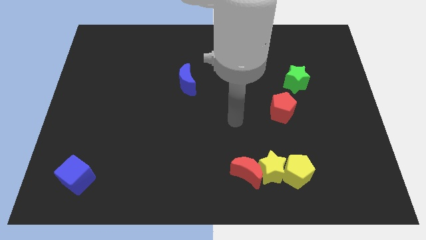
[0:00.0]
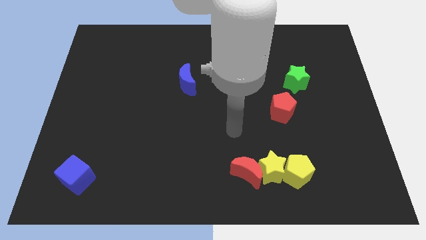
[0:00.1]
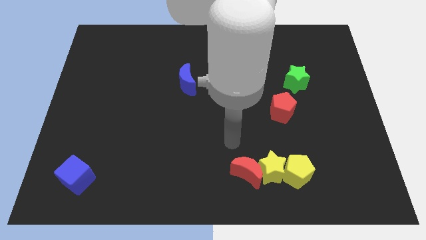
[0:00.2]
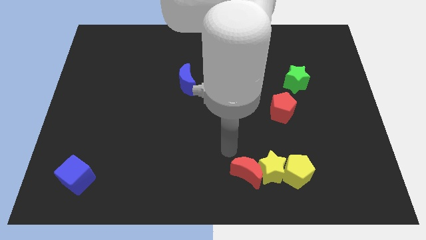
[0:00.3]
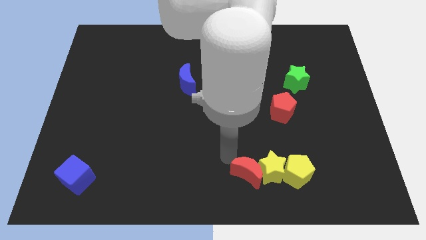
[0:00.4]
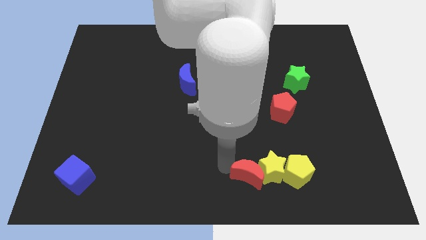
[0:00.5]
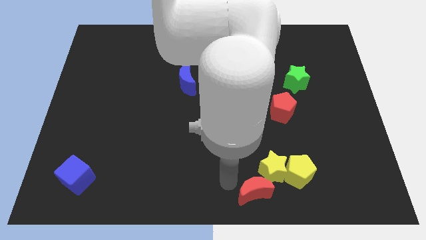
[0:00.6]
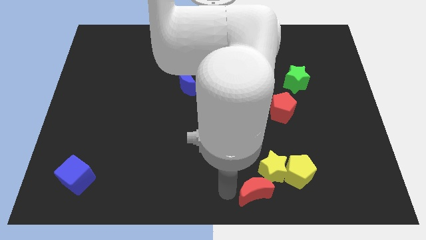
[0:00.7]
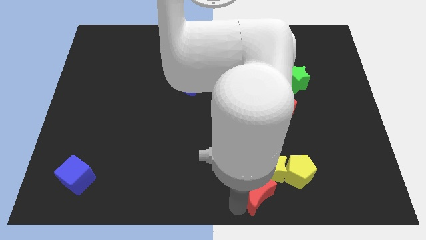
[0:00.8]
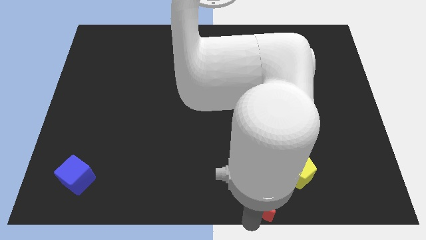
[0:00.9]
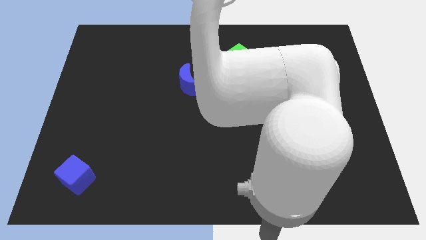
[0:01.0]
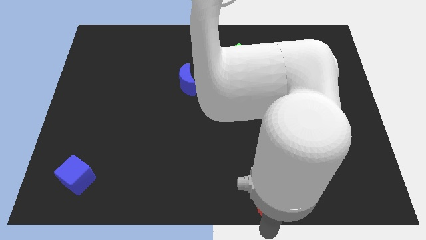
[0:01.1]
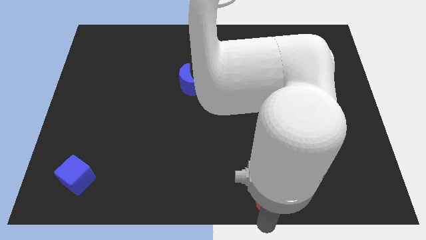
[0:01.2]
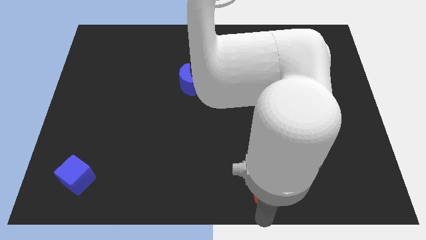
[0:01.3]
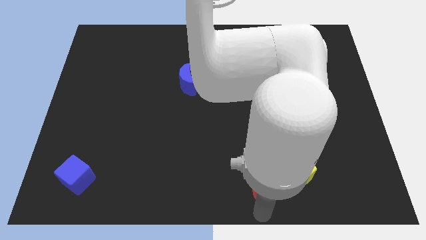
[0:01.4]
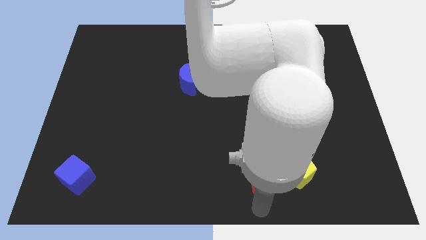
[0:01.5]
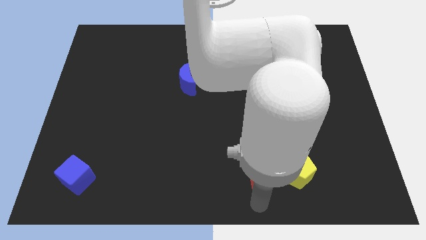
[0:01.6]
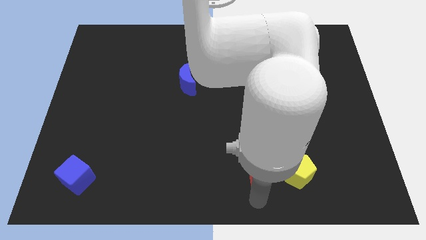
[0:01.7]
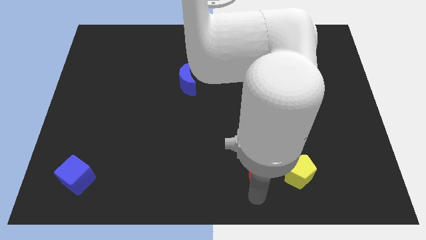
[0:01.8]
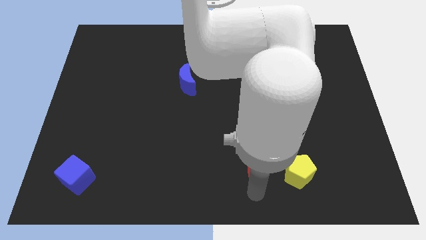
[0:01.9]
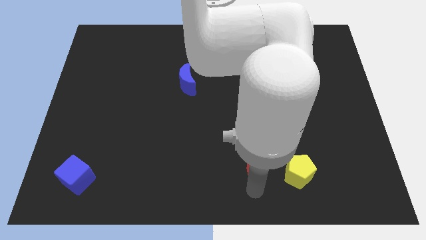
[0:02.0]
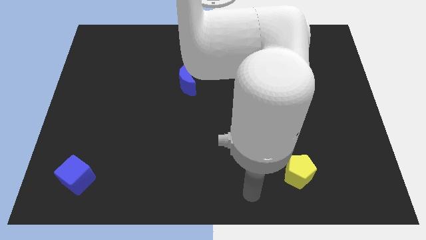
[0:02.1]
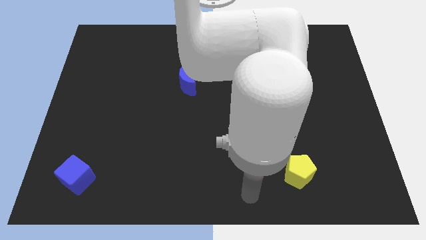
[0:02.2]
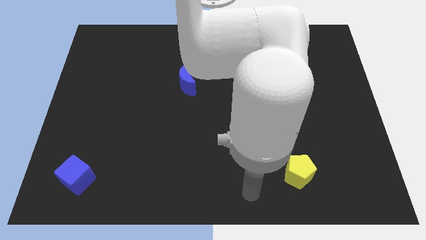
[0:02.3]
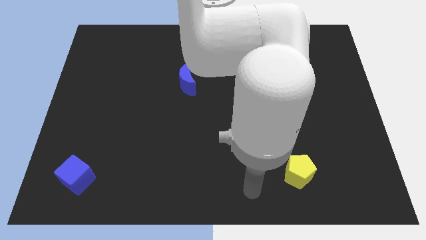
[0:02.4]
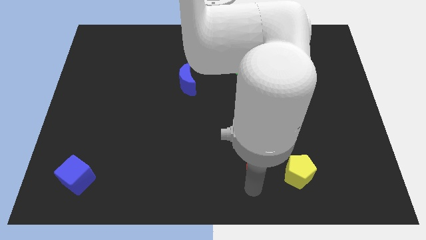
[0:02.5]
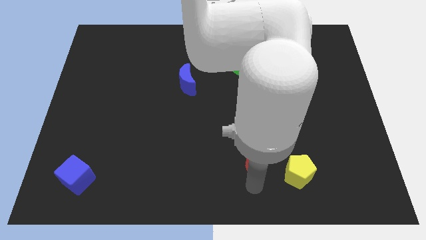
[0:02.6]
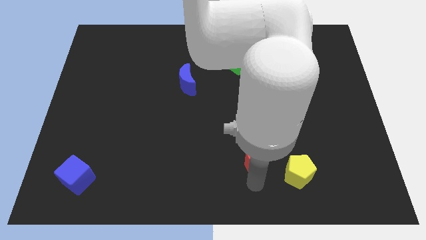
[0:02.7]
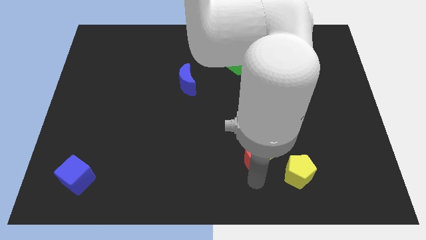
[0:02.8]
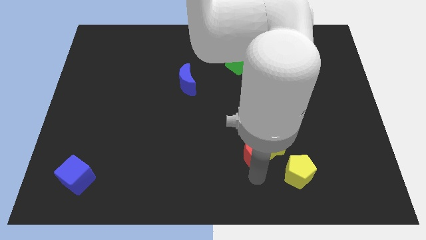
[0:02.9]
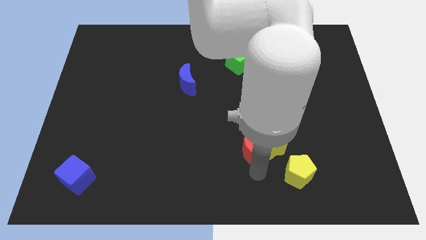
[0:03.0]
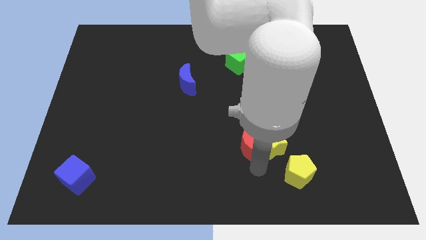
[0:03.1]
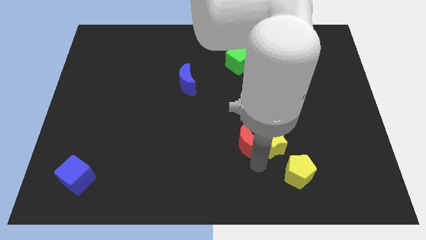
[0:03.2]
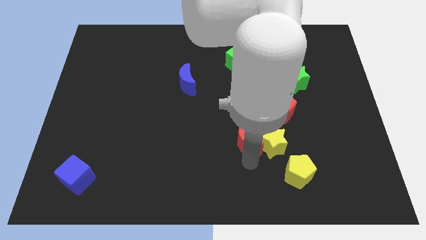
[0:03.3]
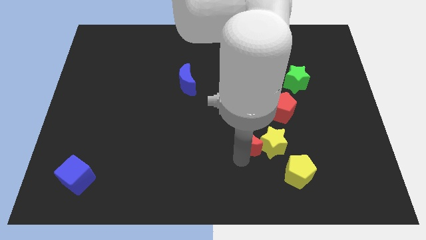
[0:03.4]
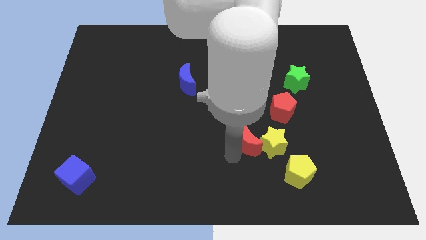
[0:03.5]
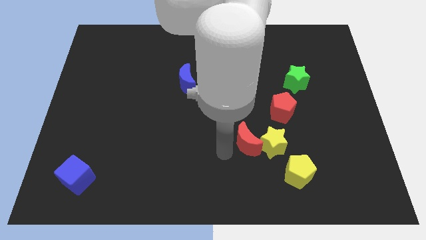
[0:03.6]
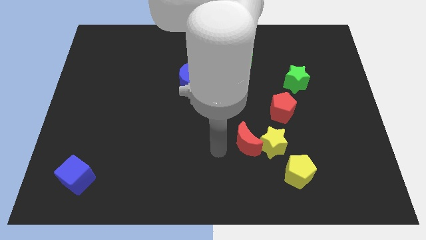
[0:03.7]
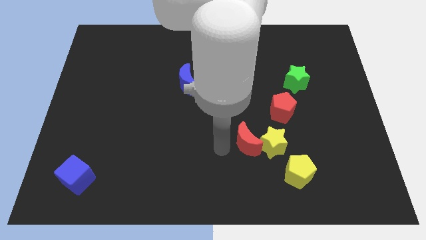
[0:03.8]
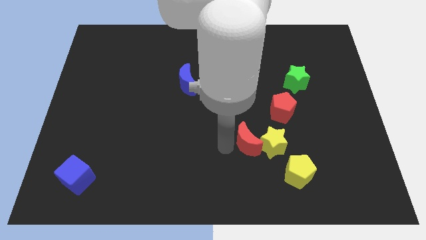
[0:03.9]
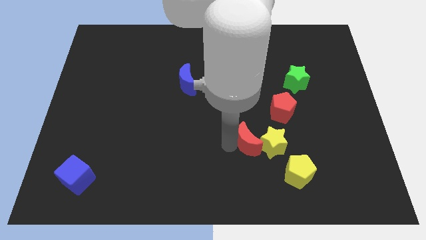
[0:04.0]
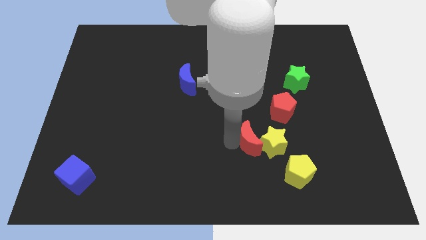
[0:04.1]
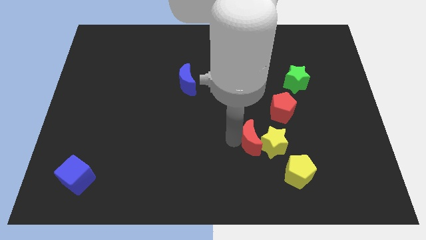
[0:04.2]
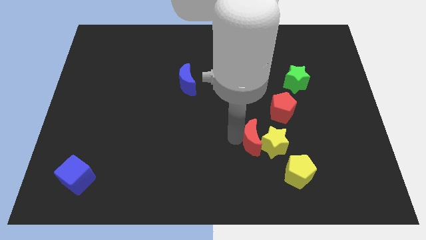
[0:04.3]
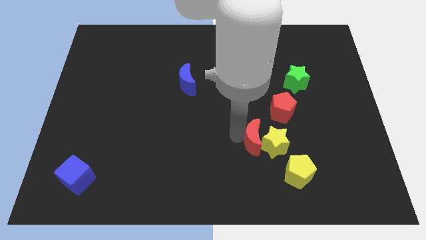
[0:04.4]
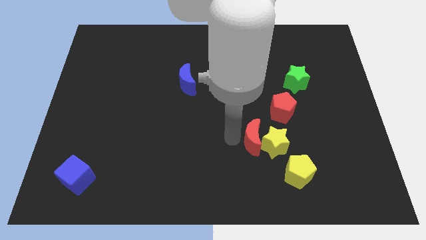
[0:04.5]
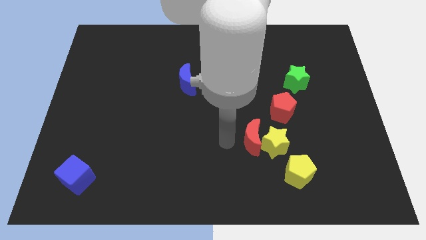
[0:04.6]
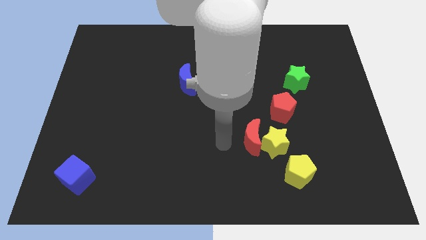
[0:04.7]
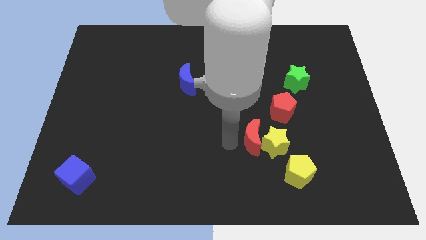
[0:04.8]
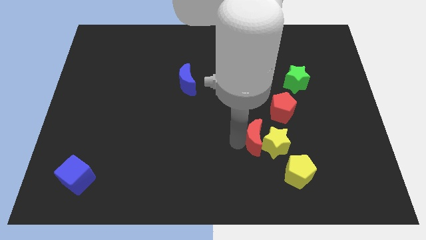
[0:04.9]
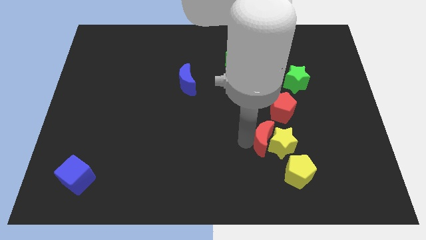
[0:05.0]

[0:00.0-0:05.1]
move the red moon up and right a bit

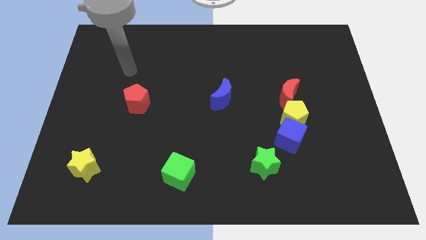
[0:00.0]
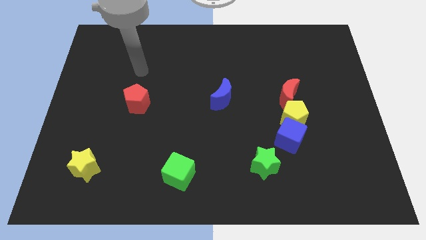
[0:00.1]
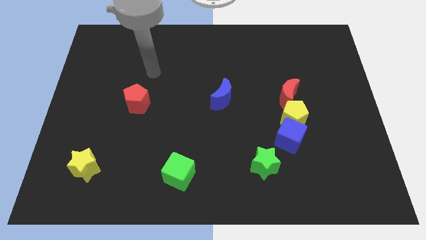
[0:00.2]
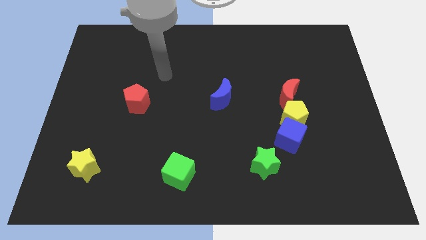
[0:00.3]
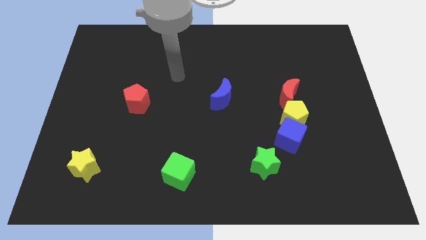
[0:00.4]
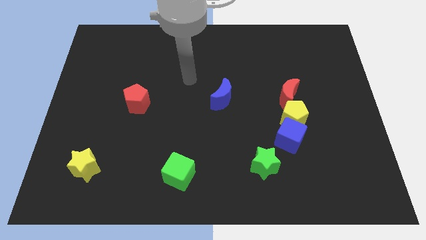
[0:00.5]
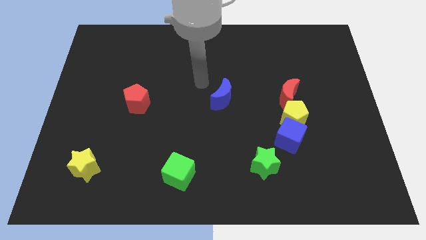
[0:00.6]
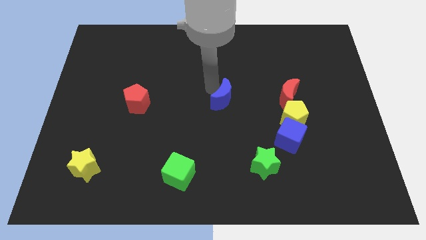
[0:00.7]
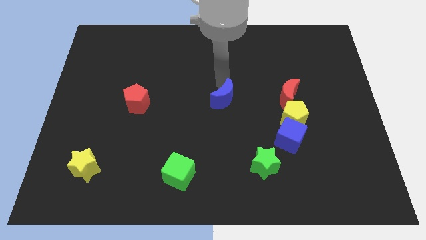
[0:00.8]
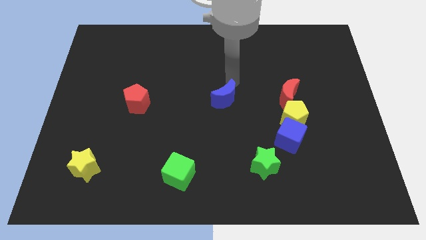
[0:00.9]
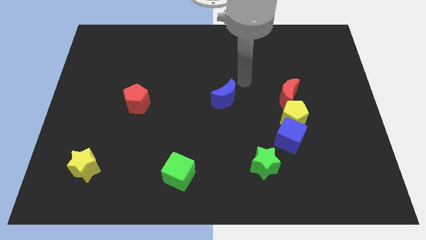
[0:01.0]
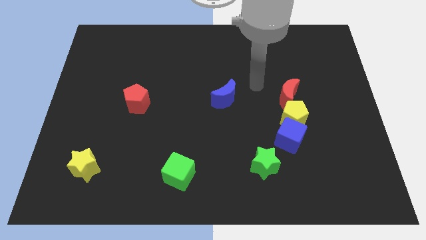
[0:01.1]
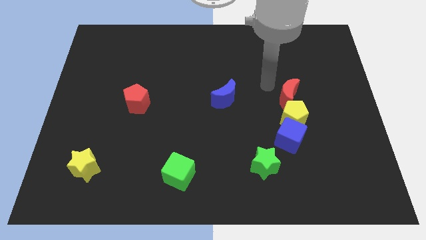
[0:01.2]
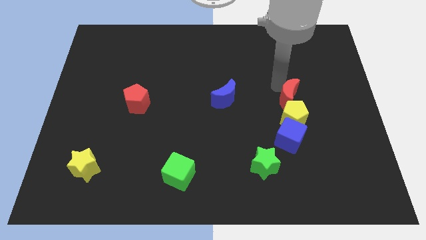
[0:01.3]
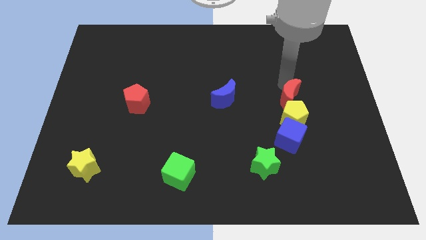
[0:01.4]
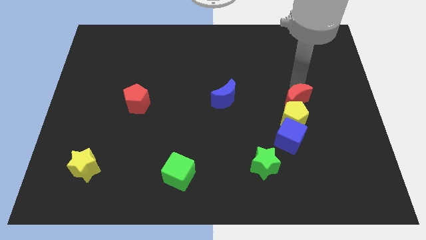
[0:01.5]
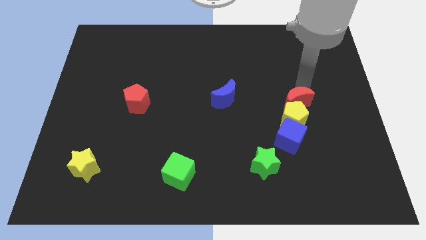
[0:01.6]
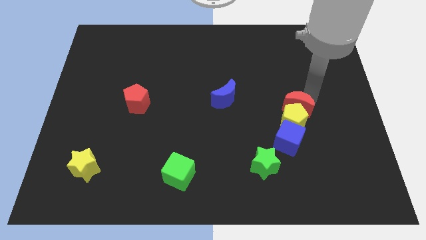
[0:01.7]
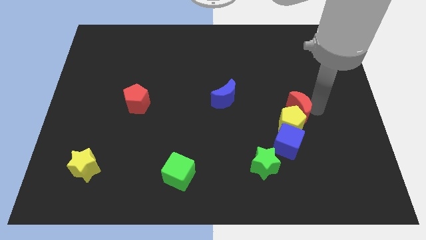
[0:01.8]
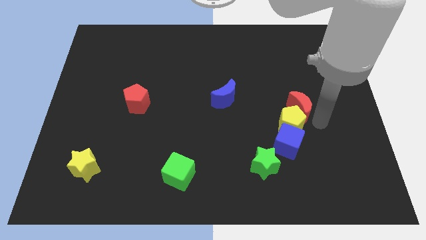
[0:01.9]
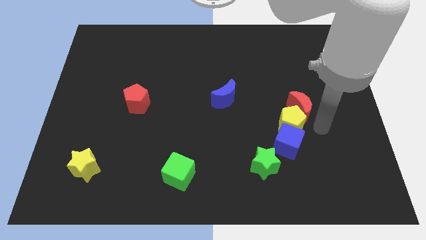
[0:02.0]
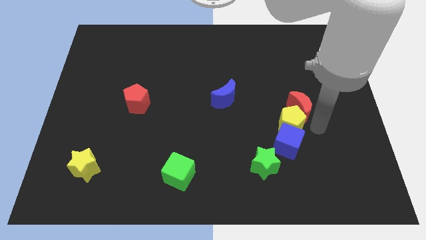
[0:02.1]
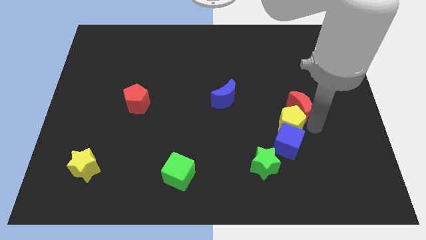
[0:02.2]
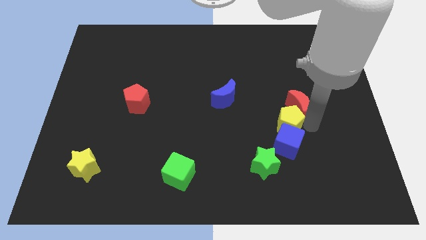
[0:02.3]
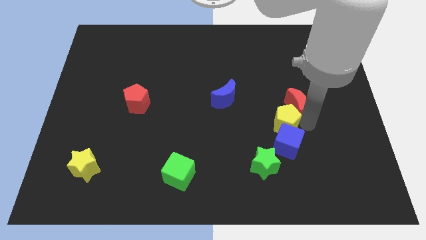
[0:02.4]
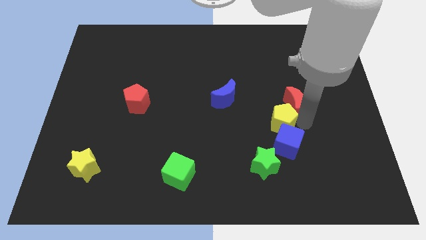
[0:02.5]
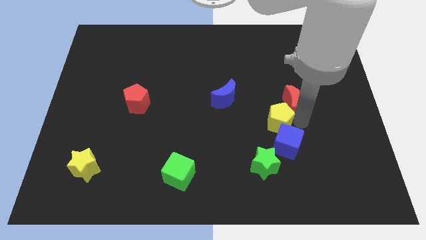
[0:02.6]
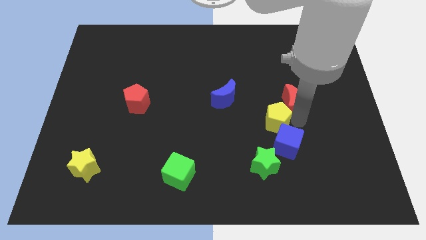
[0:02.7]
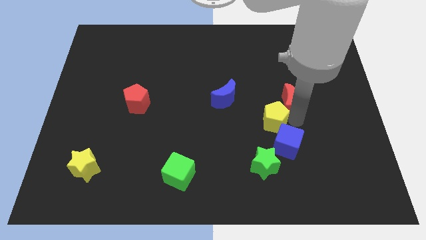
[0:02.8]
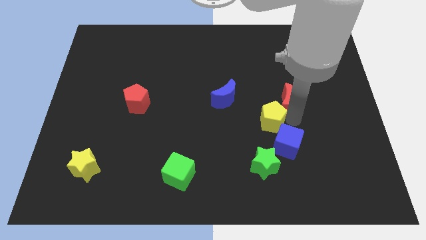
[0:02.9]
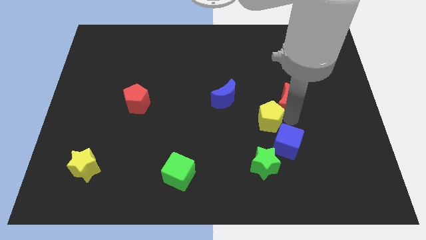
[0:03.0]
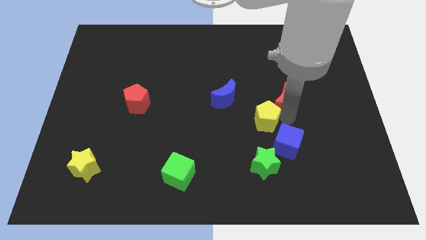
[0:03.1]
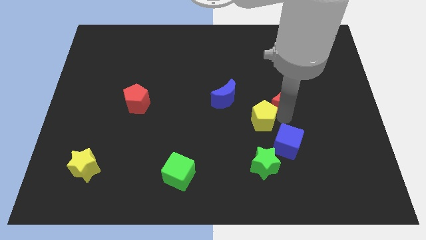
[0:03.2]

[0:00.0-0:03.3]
slightly slide the yellow pentagon left
